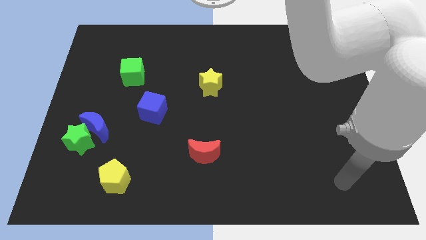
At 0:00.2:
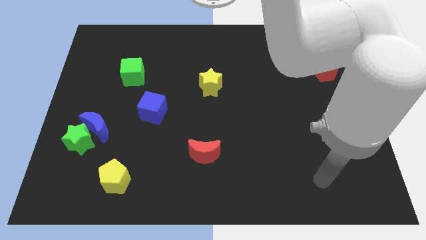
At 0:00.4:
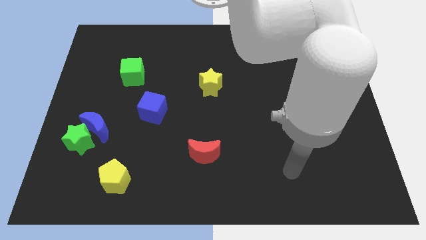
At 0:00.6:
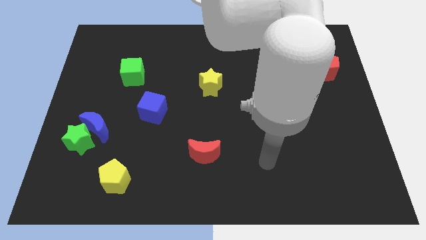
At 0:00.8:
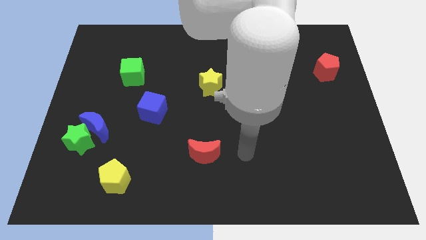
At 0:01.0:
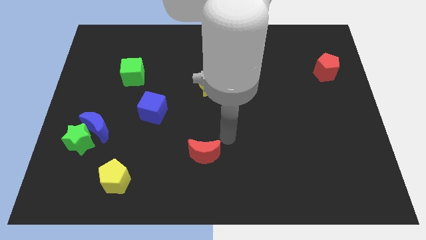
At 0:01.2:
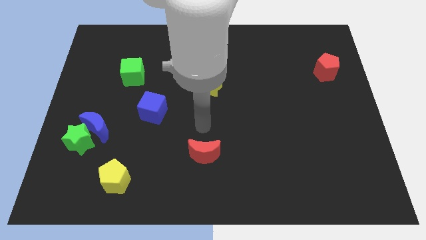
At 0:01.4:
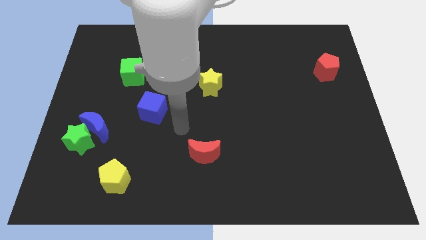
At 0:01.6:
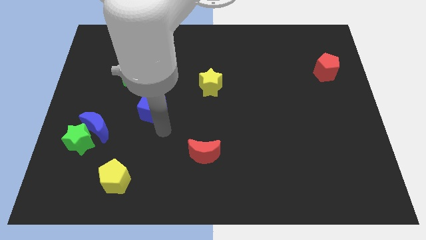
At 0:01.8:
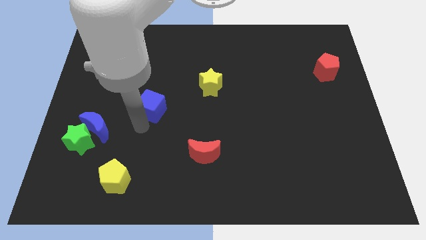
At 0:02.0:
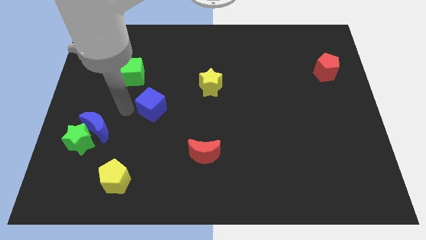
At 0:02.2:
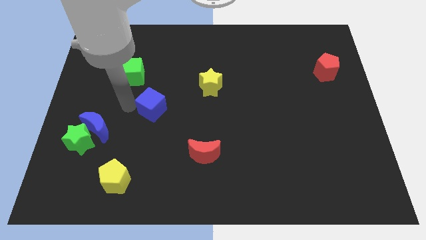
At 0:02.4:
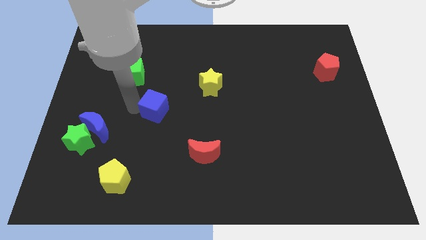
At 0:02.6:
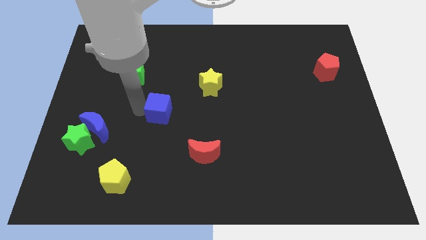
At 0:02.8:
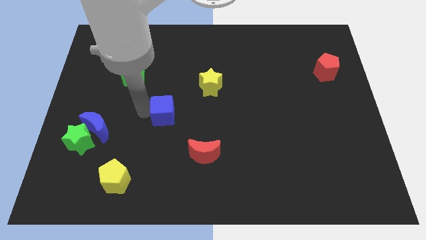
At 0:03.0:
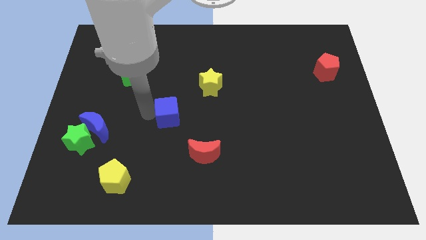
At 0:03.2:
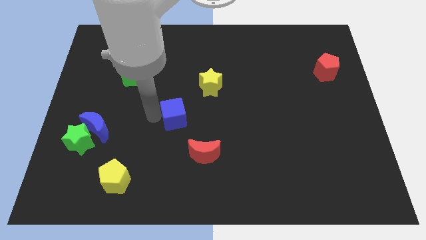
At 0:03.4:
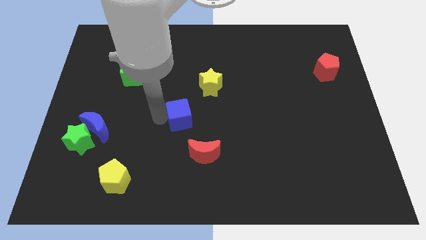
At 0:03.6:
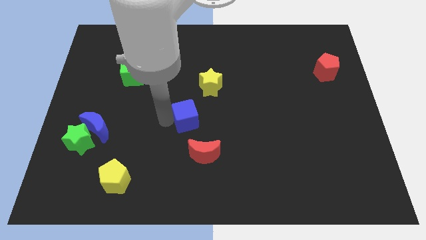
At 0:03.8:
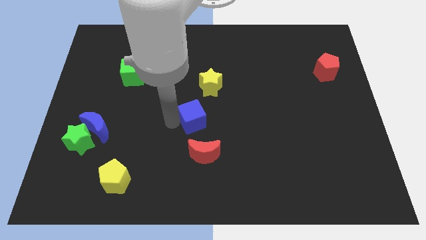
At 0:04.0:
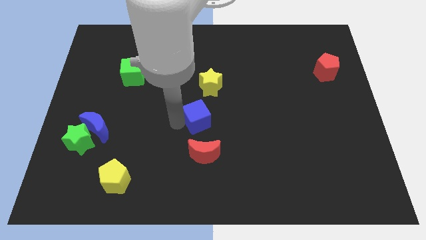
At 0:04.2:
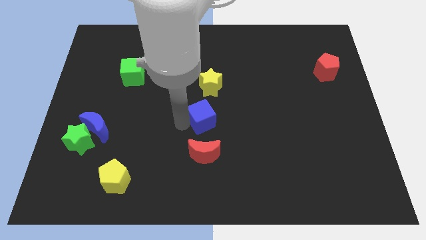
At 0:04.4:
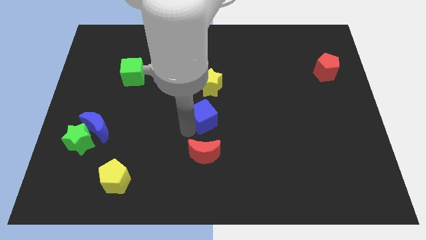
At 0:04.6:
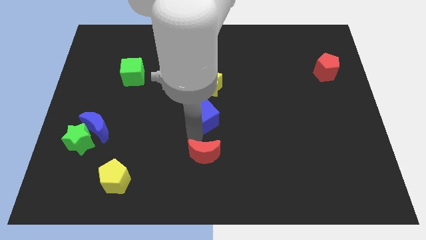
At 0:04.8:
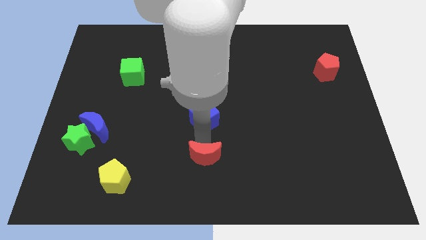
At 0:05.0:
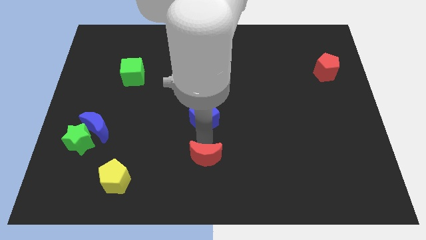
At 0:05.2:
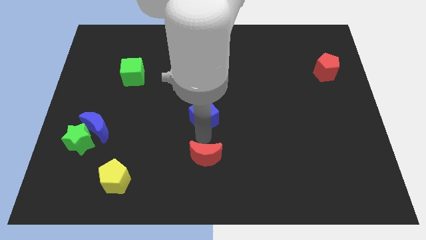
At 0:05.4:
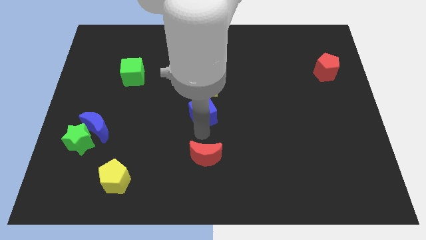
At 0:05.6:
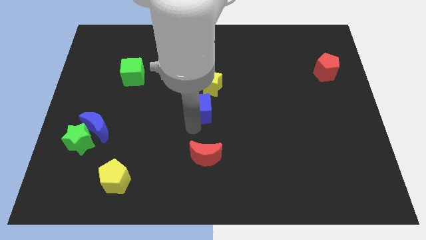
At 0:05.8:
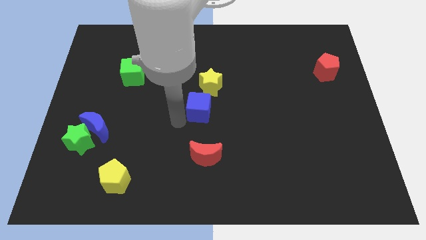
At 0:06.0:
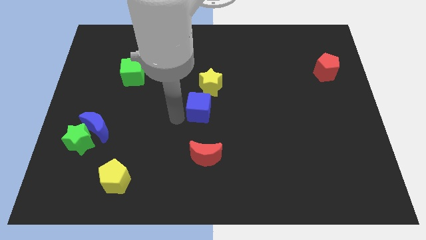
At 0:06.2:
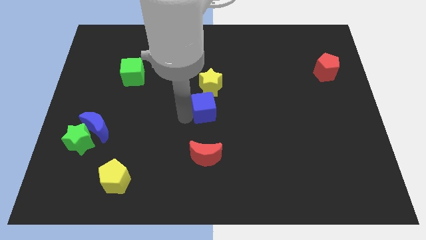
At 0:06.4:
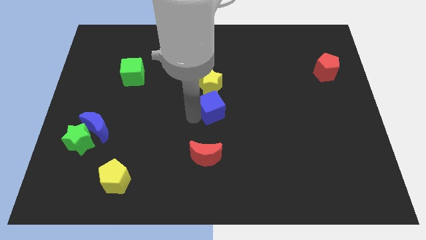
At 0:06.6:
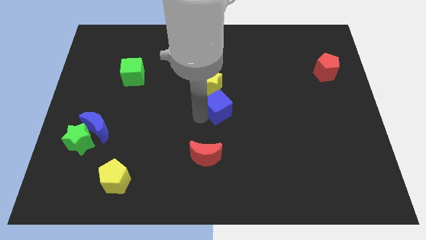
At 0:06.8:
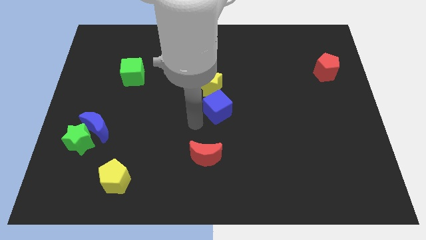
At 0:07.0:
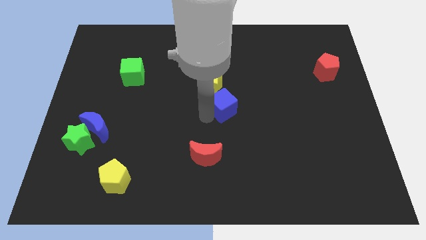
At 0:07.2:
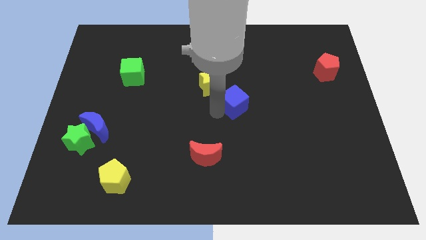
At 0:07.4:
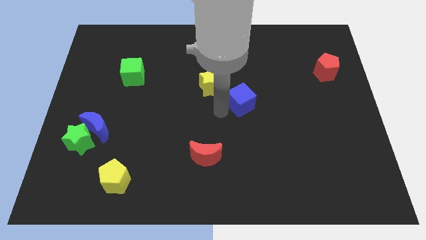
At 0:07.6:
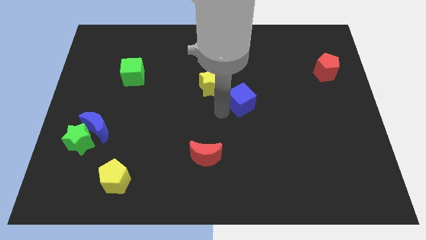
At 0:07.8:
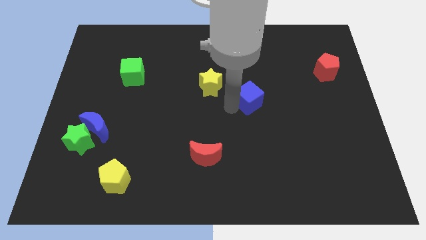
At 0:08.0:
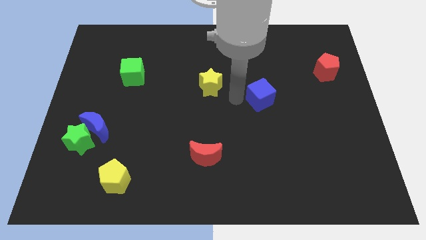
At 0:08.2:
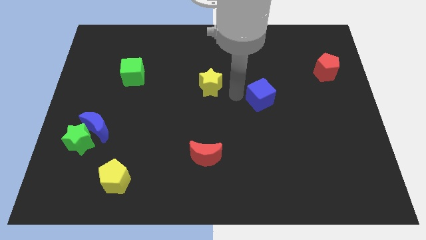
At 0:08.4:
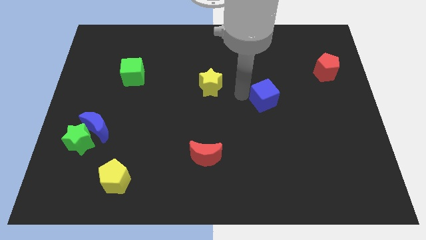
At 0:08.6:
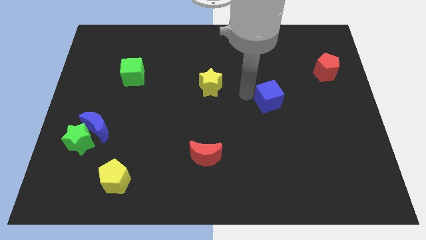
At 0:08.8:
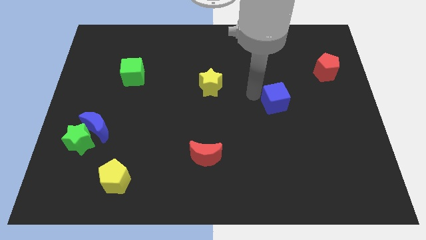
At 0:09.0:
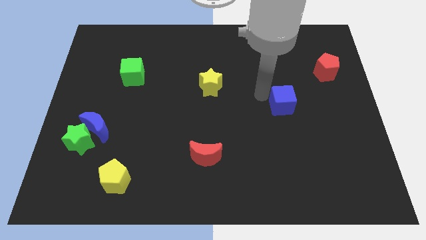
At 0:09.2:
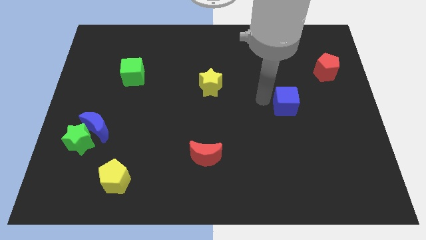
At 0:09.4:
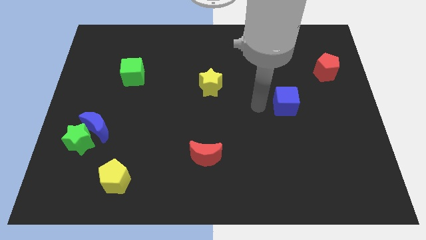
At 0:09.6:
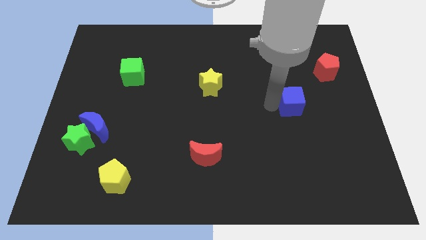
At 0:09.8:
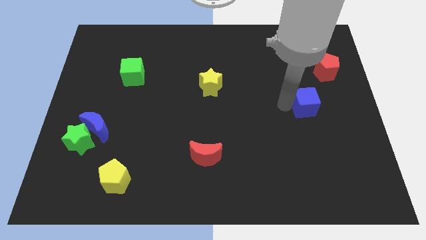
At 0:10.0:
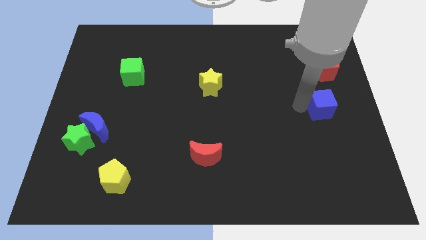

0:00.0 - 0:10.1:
slide the blue cube below the red pentagon

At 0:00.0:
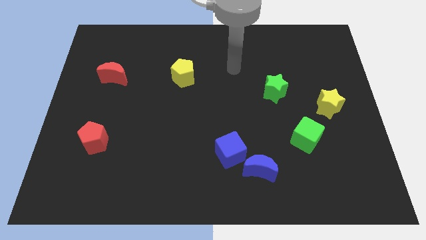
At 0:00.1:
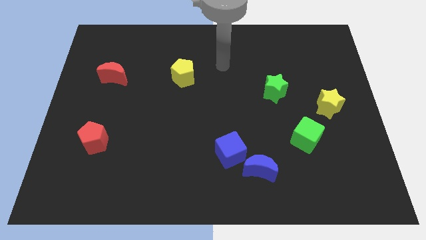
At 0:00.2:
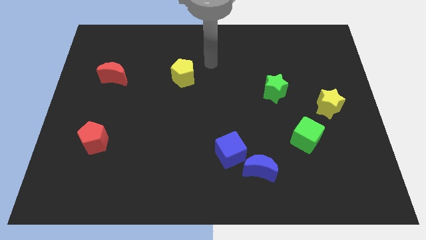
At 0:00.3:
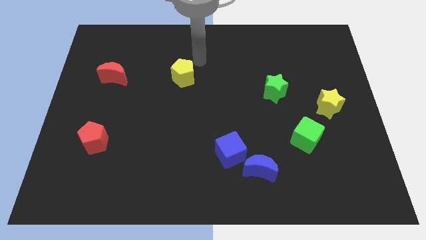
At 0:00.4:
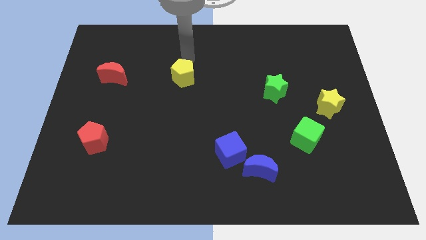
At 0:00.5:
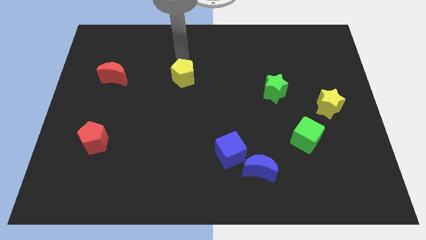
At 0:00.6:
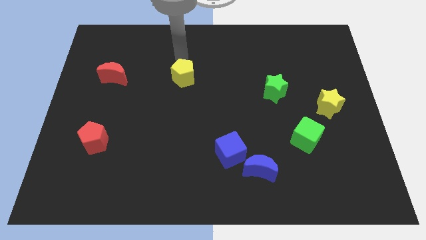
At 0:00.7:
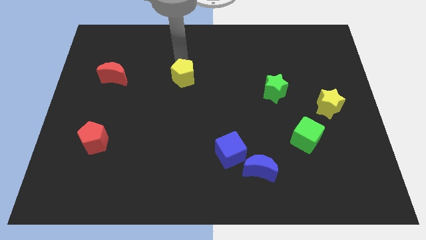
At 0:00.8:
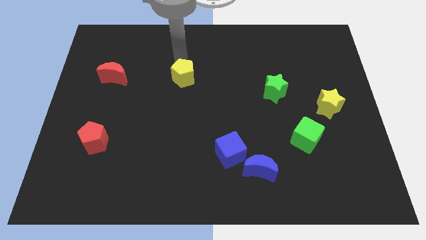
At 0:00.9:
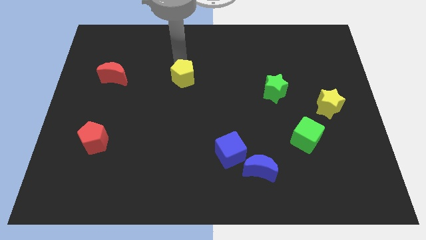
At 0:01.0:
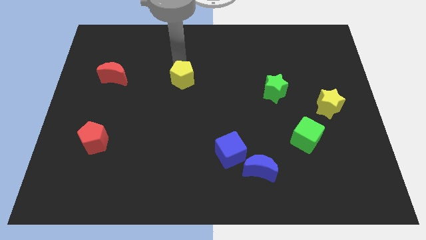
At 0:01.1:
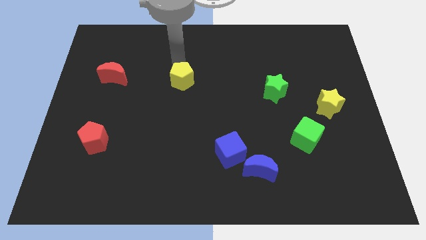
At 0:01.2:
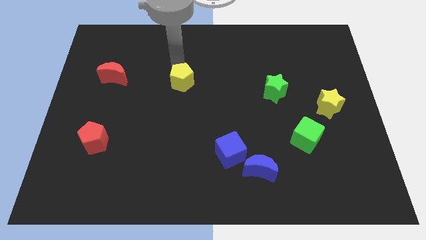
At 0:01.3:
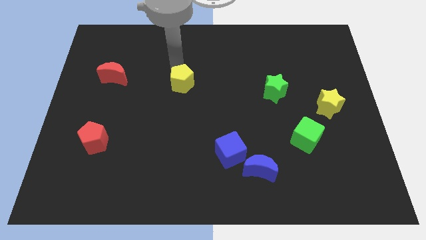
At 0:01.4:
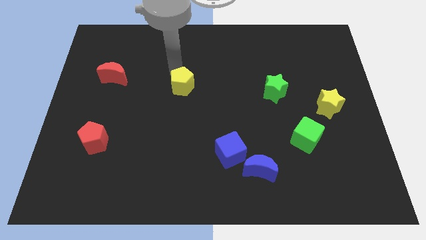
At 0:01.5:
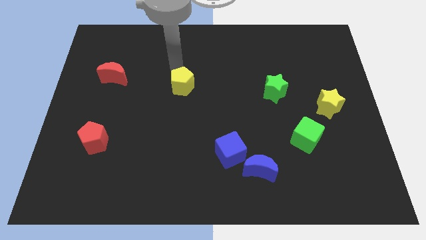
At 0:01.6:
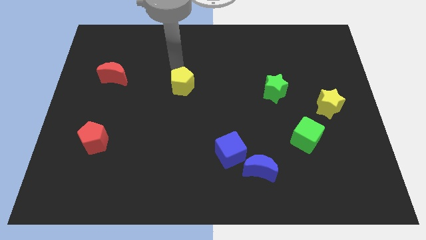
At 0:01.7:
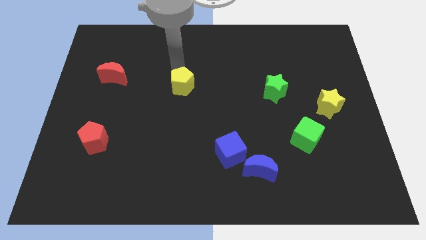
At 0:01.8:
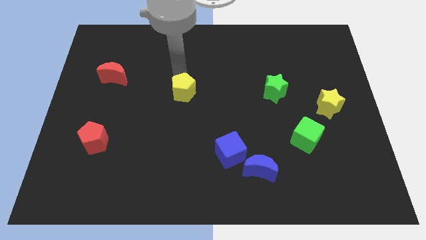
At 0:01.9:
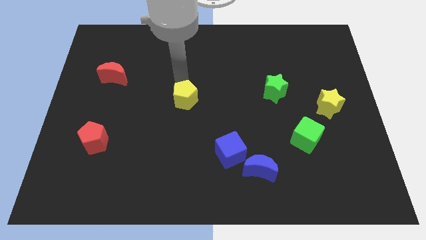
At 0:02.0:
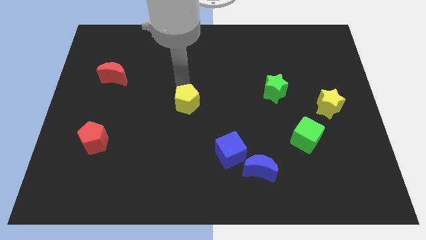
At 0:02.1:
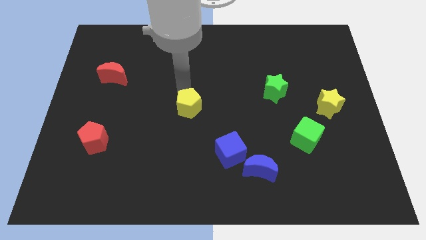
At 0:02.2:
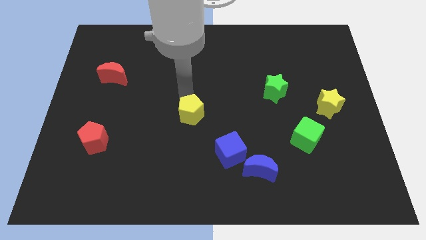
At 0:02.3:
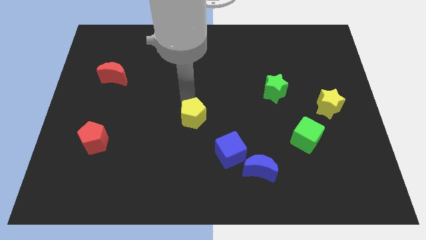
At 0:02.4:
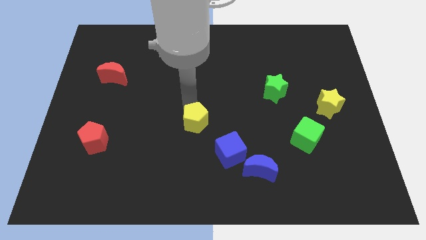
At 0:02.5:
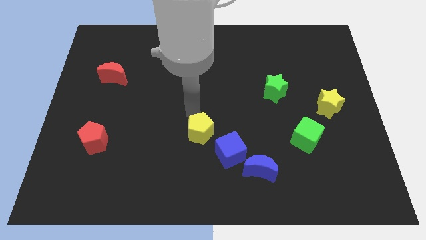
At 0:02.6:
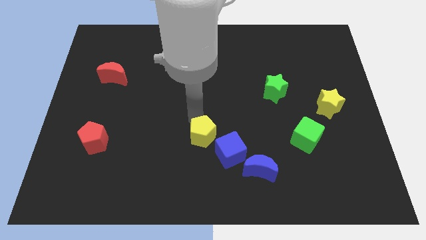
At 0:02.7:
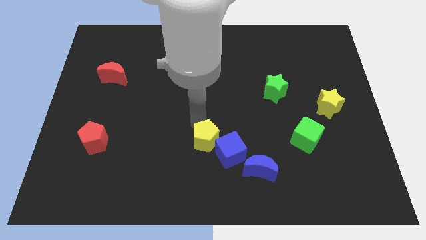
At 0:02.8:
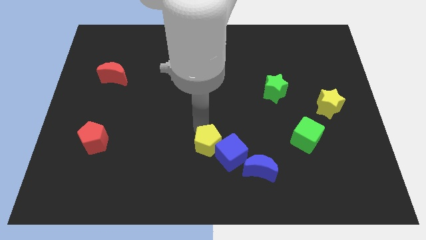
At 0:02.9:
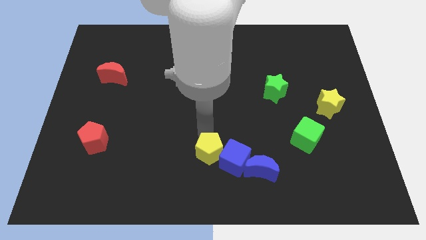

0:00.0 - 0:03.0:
push the yellow pentagon just left of the blue moon
